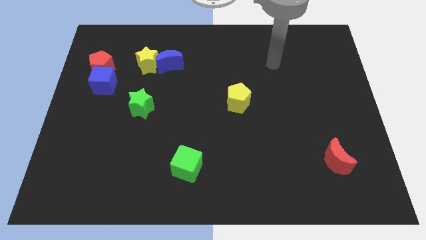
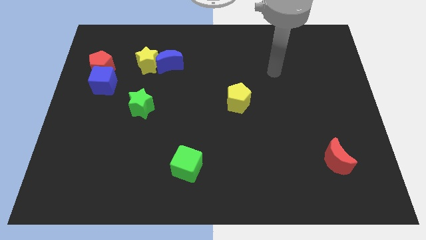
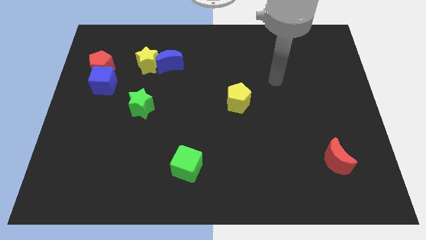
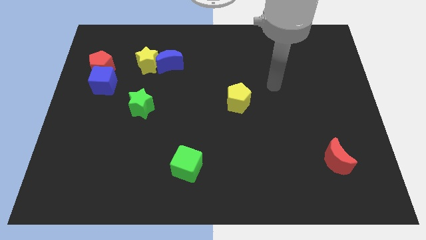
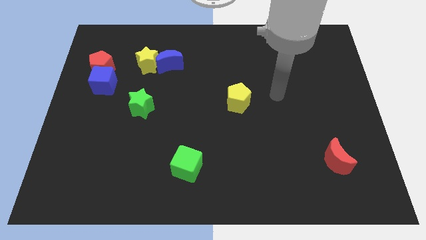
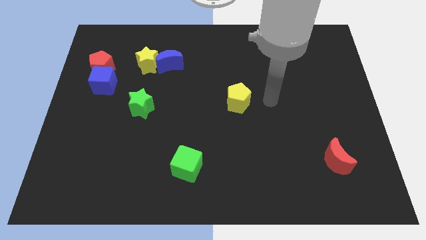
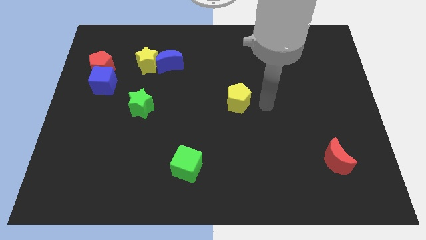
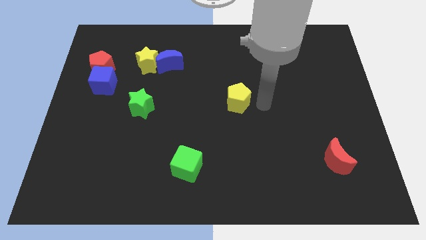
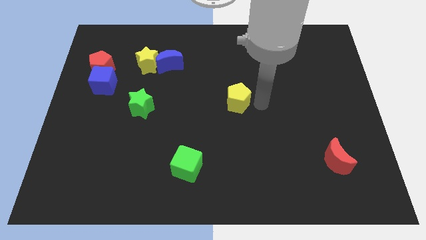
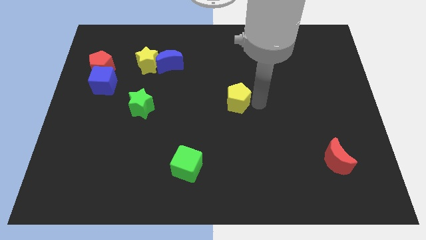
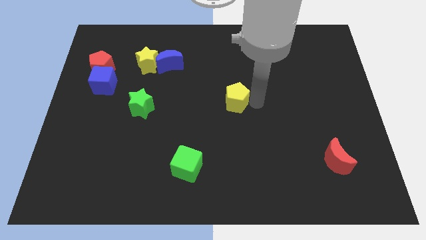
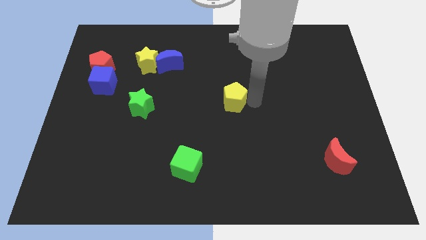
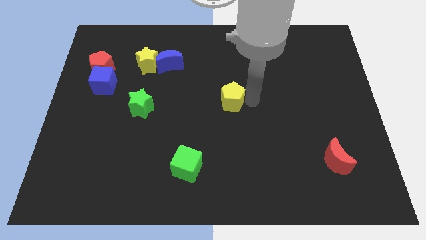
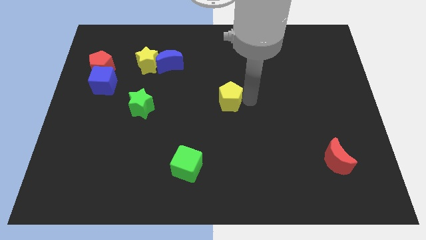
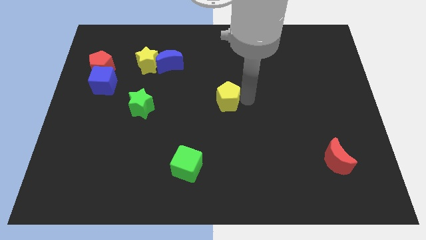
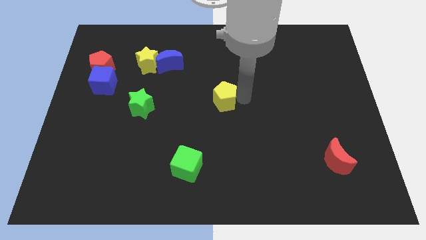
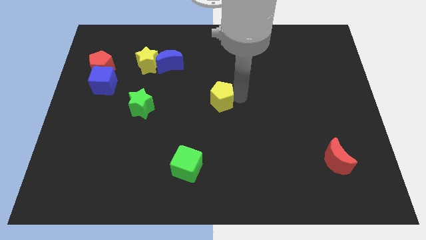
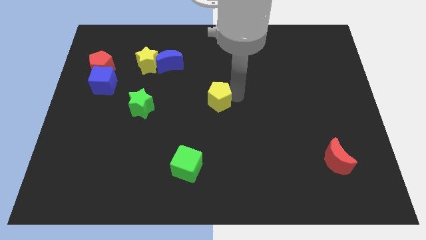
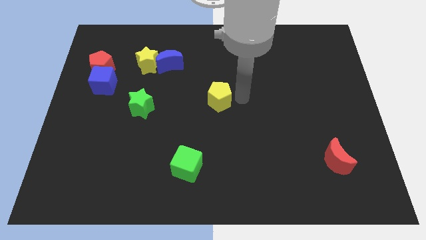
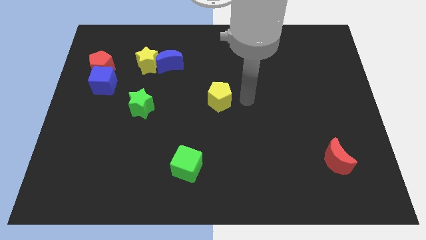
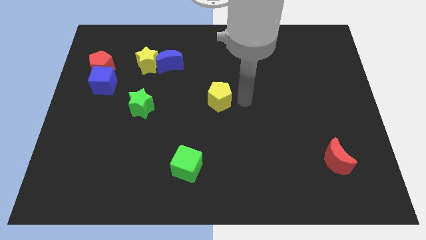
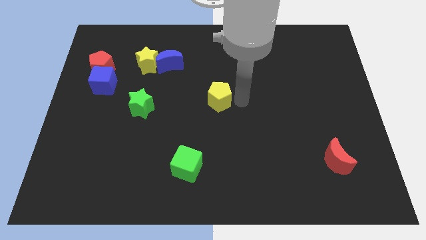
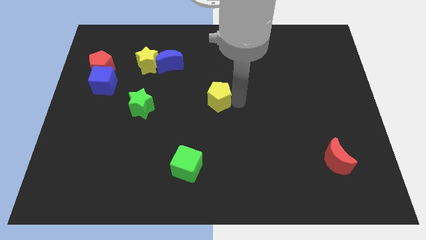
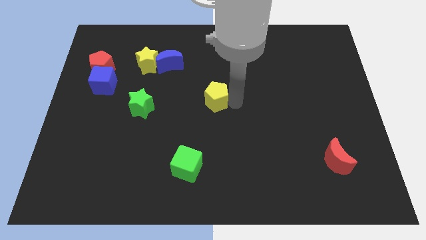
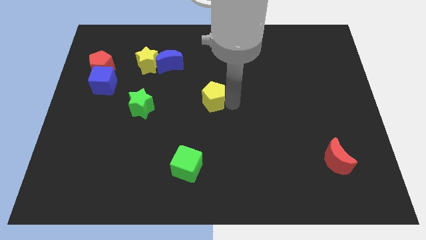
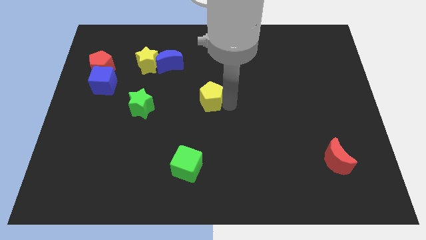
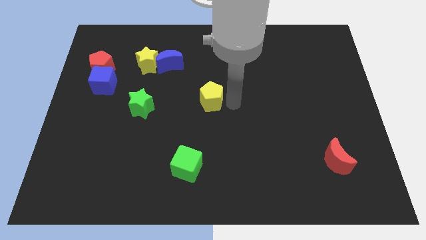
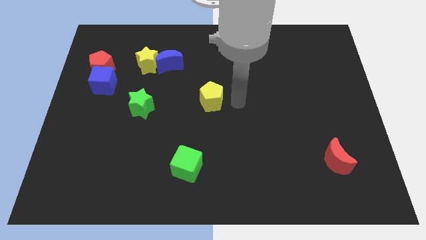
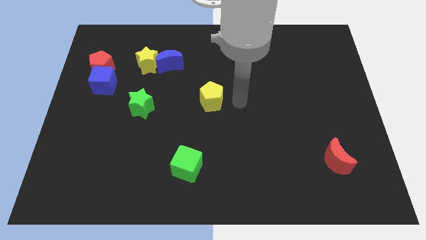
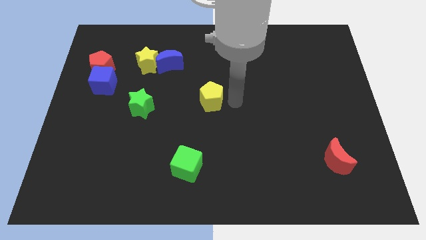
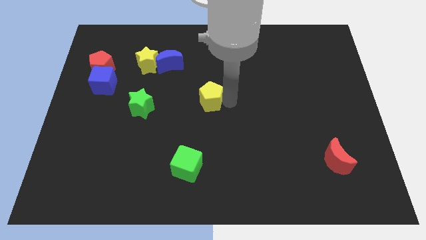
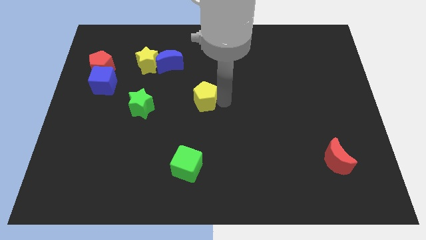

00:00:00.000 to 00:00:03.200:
push the yellow pentagon a bit to the left

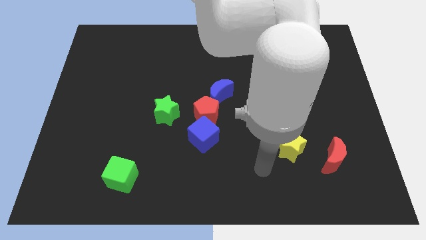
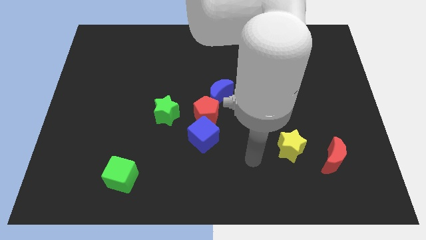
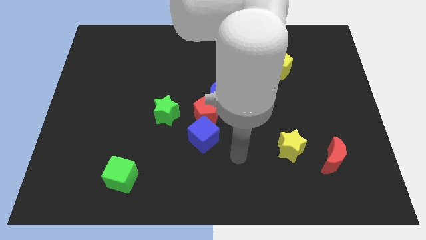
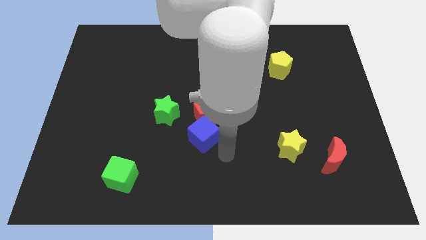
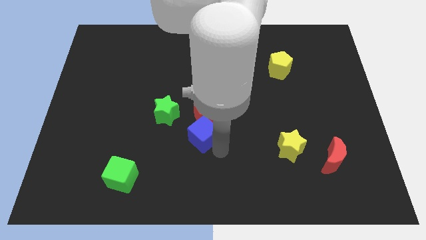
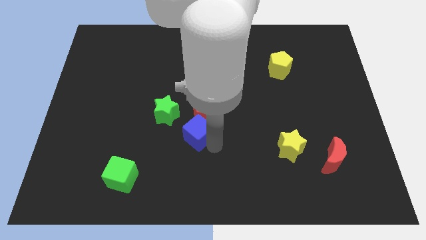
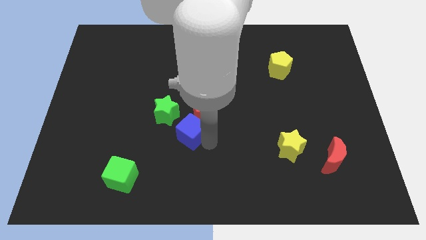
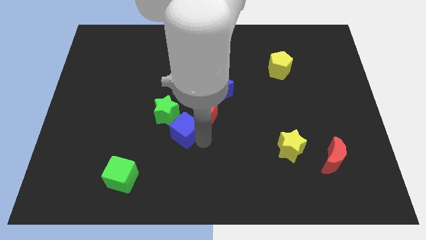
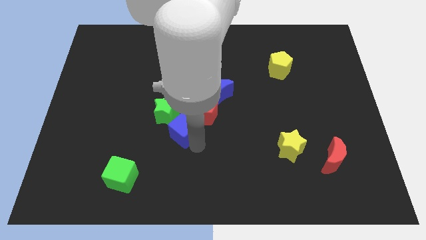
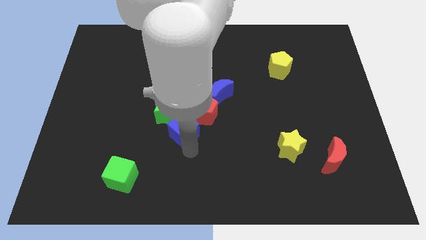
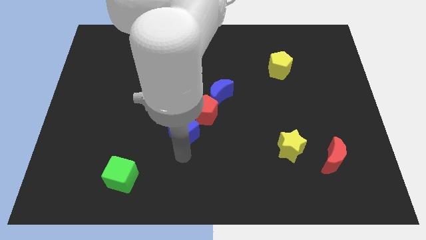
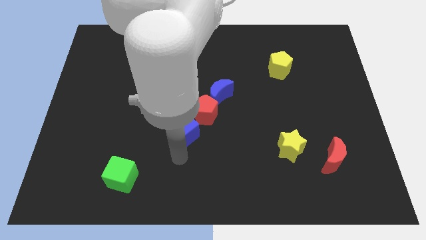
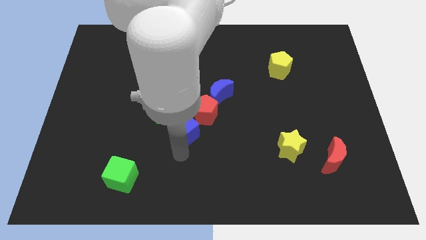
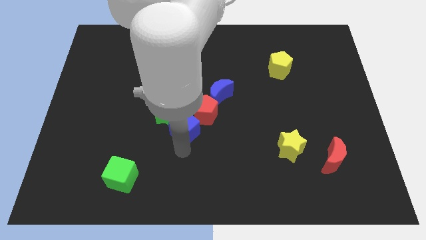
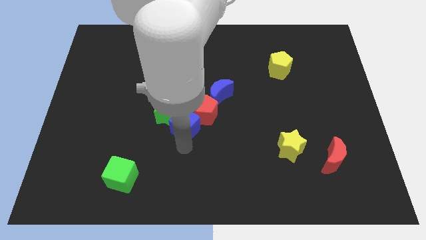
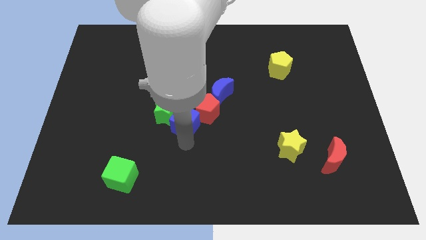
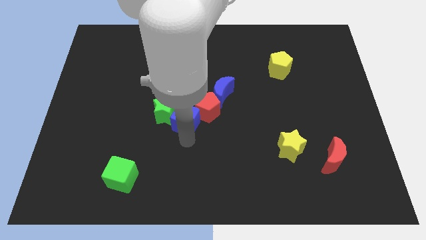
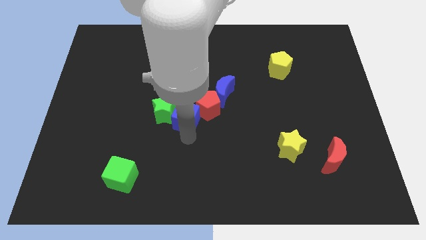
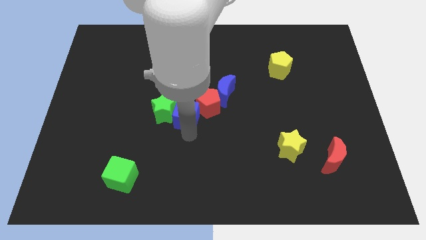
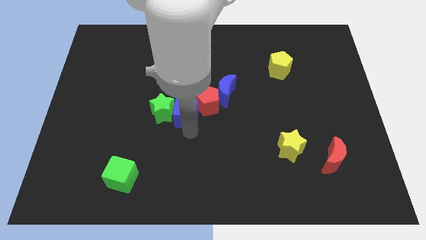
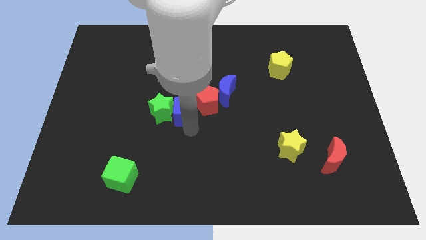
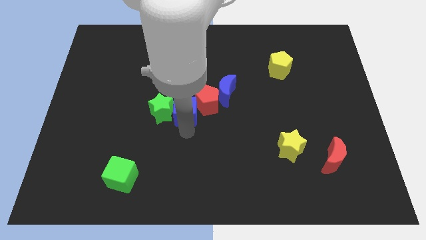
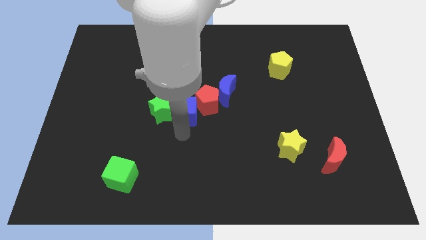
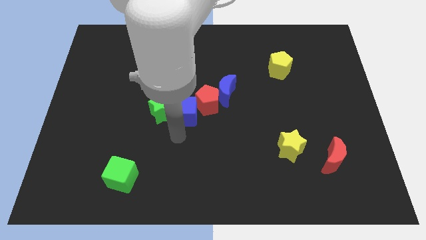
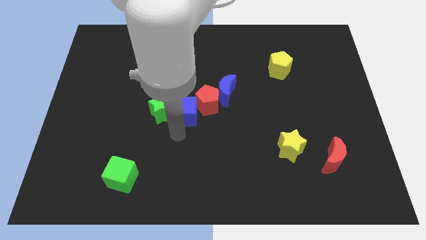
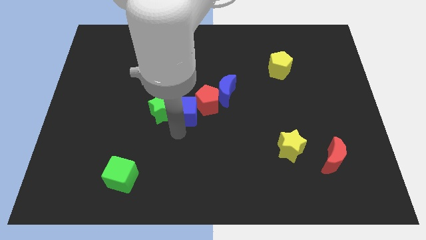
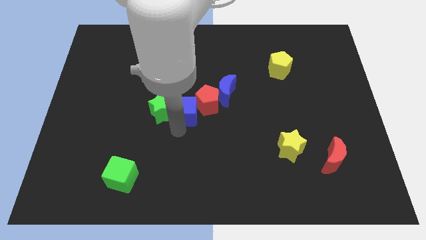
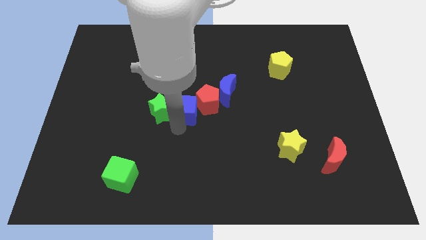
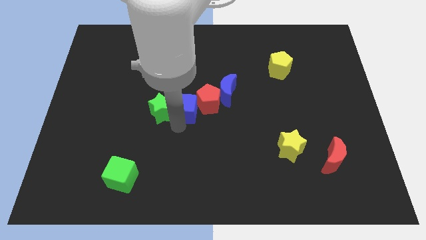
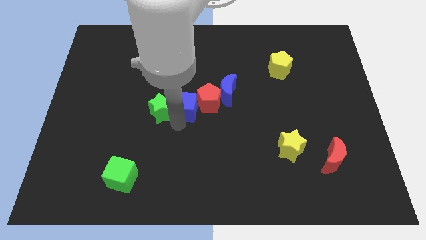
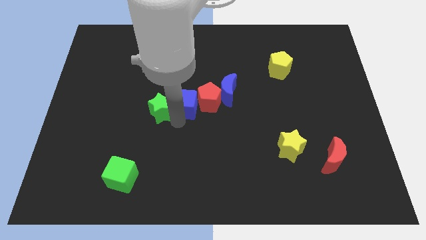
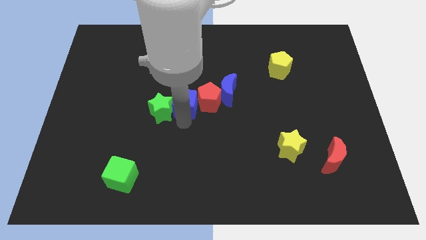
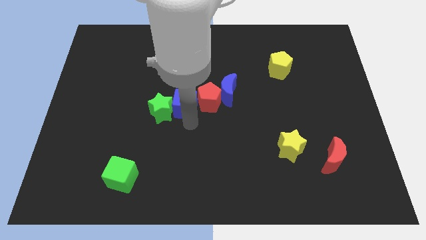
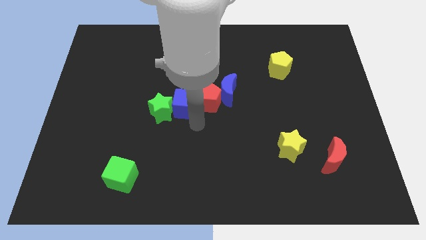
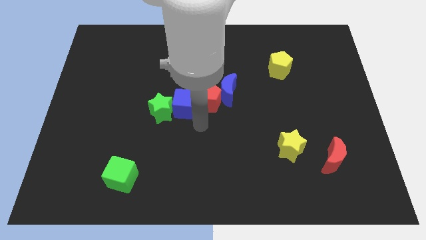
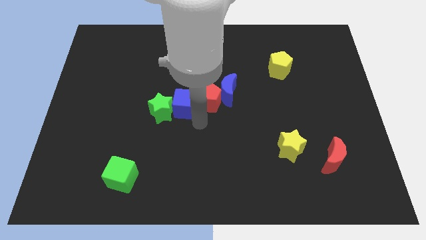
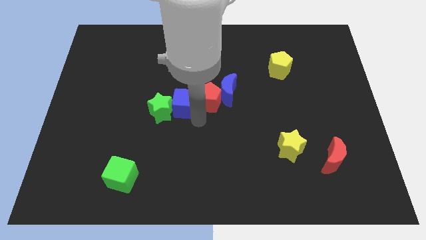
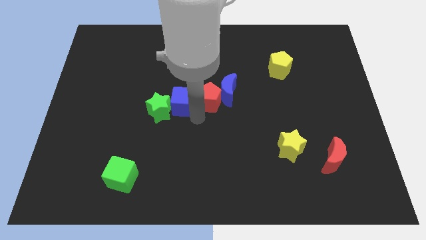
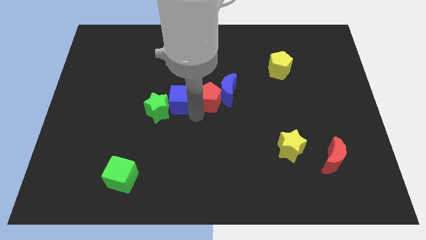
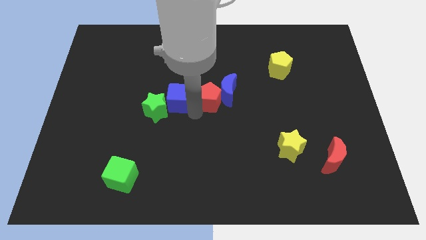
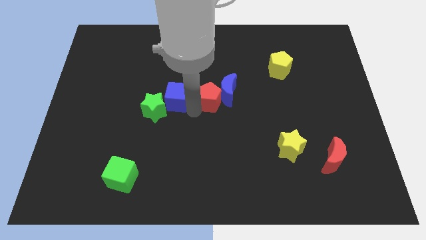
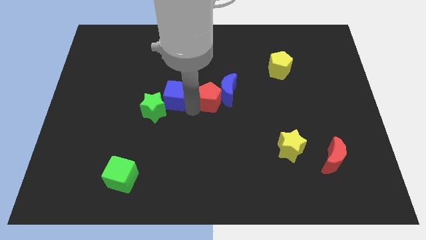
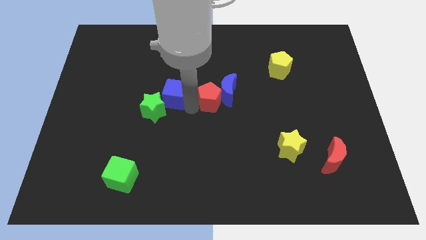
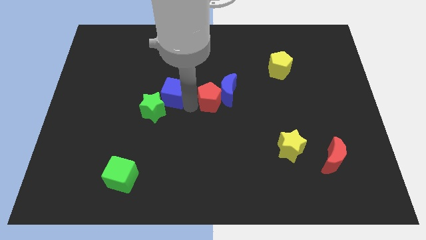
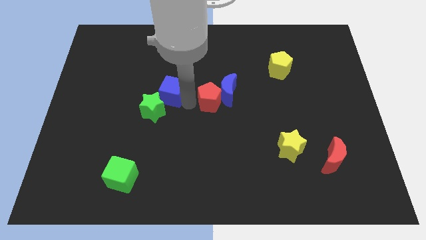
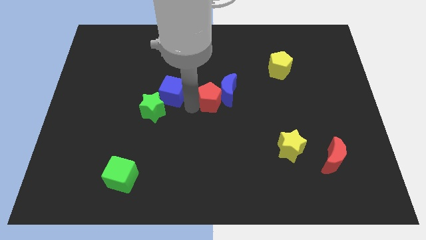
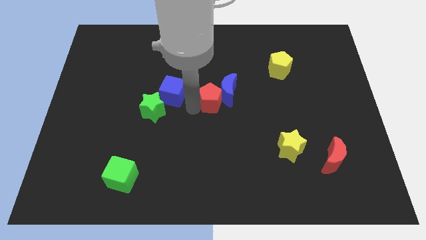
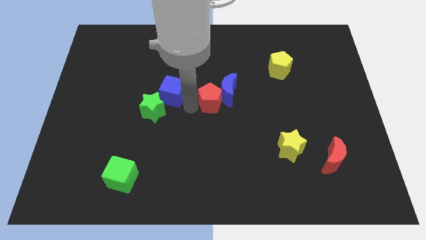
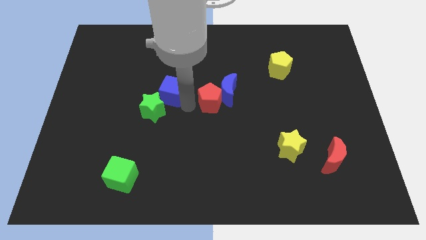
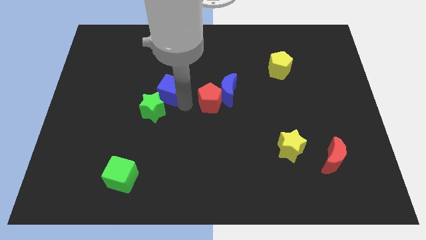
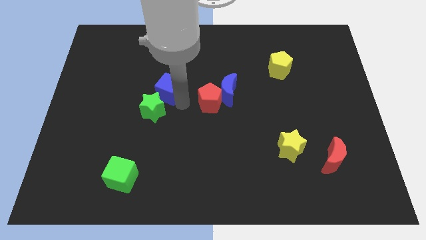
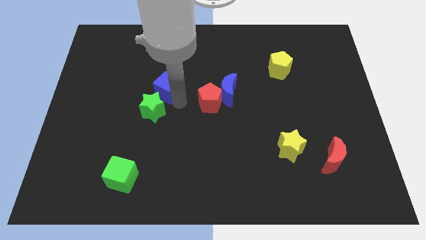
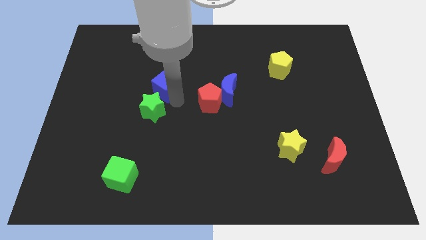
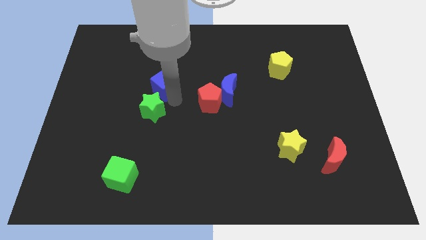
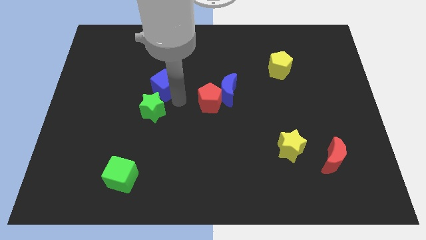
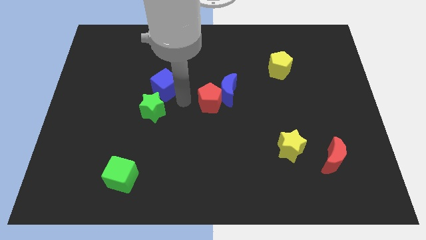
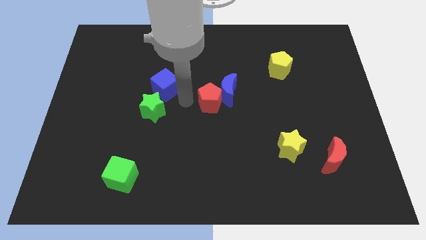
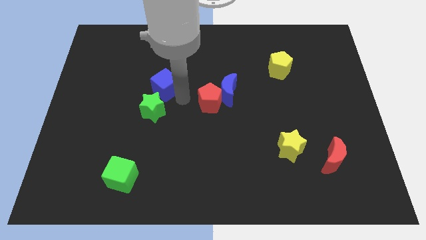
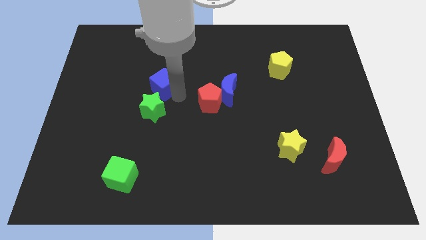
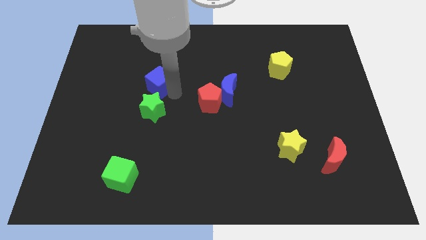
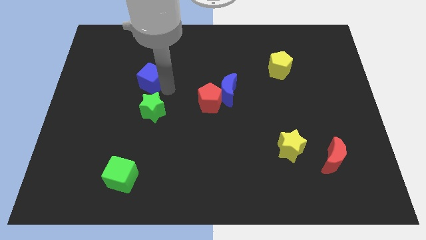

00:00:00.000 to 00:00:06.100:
move the blue cube upwards and to the left diagonally
